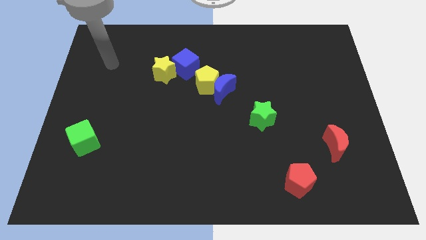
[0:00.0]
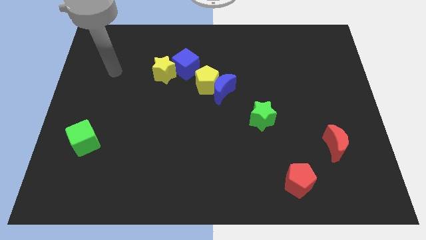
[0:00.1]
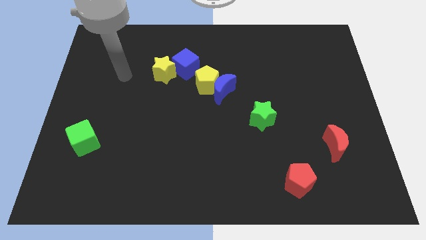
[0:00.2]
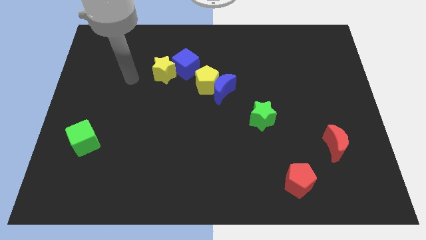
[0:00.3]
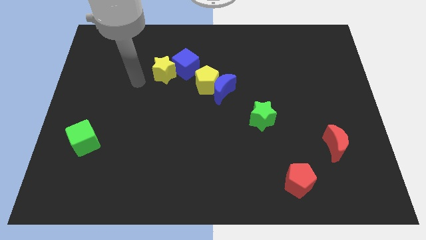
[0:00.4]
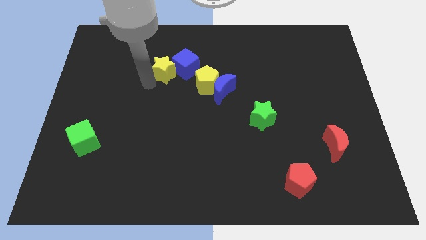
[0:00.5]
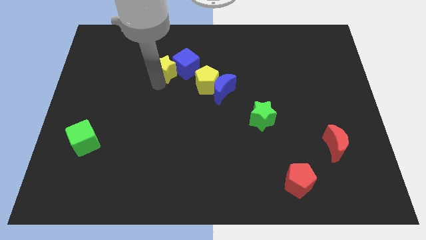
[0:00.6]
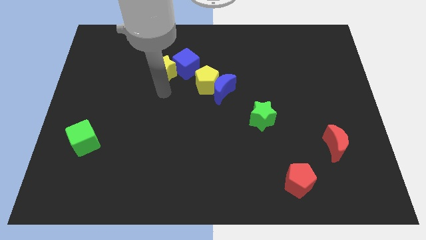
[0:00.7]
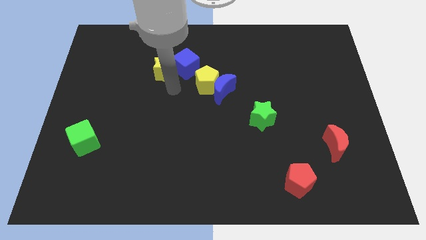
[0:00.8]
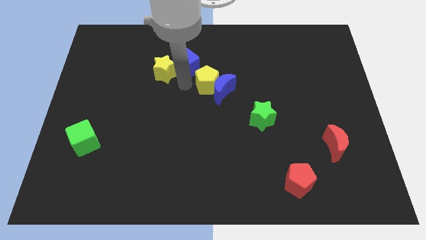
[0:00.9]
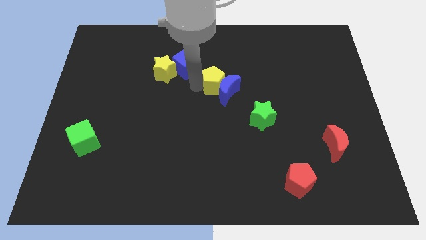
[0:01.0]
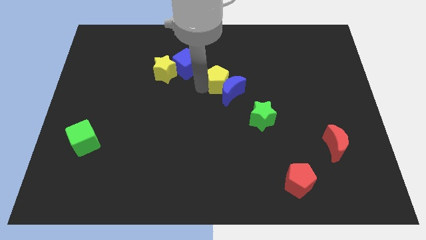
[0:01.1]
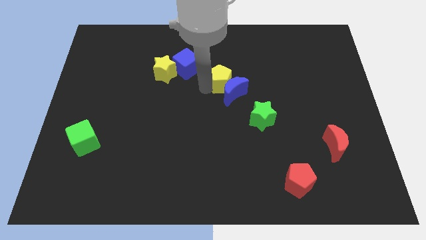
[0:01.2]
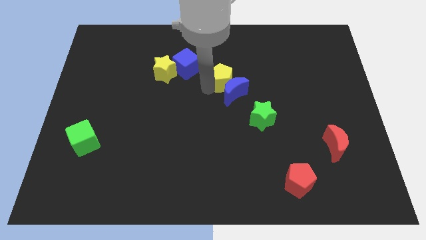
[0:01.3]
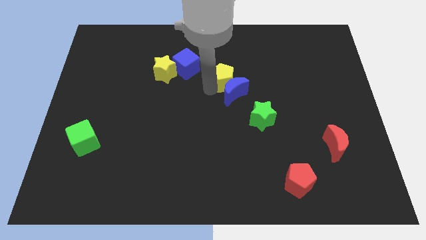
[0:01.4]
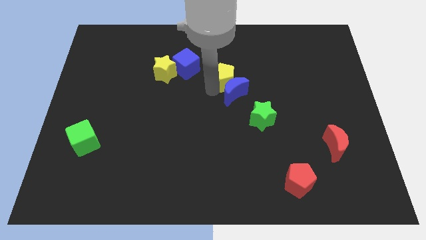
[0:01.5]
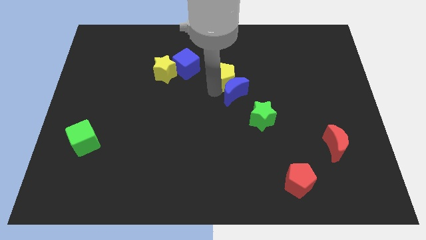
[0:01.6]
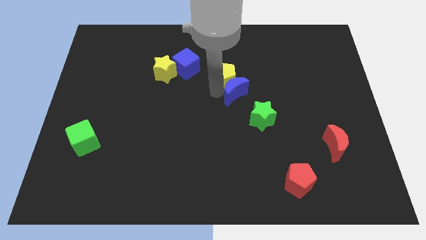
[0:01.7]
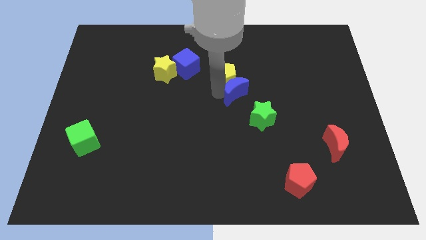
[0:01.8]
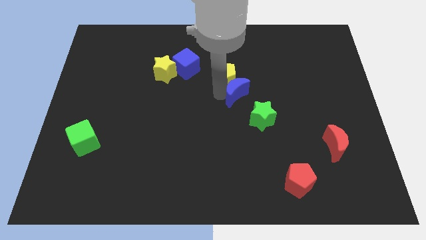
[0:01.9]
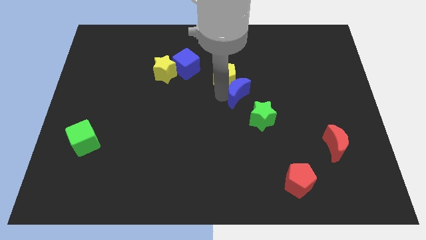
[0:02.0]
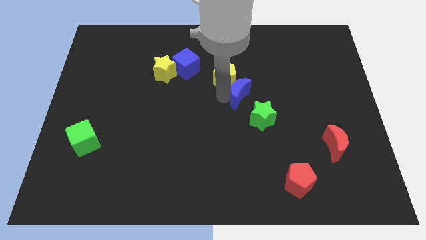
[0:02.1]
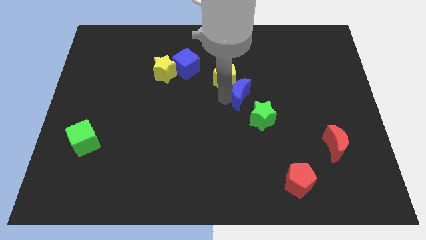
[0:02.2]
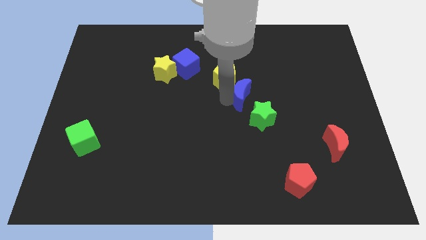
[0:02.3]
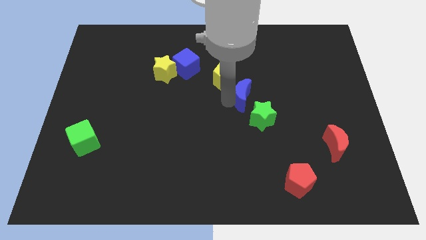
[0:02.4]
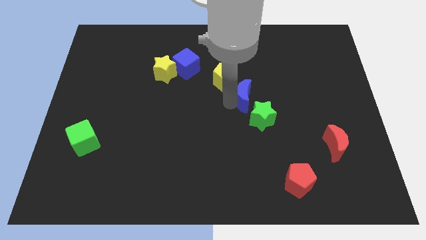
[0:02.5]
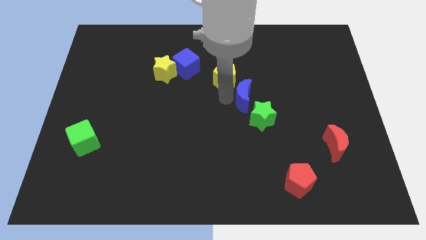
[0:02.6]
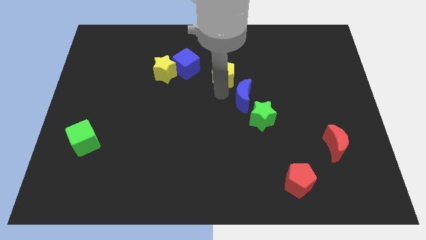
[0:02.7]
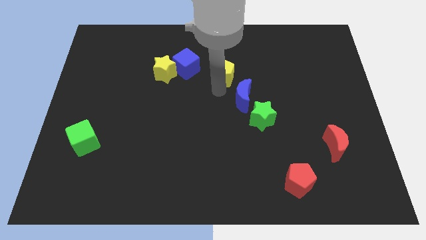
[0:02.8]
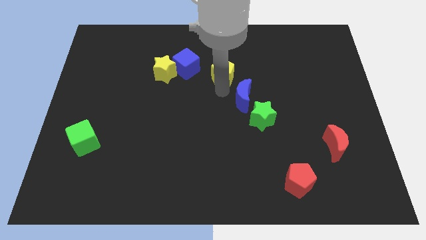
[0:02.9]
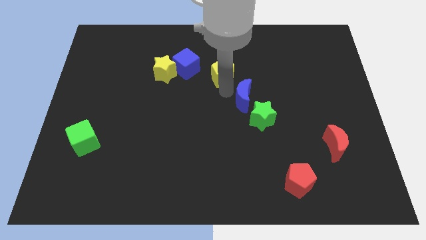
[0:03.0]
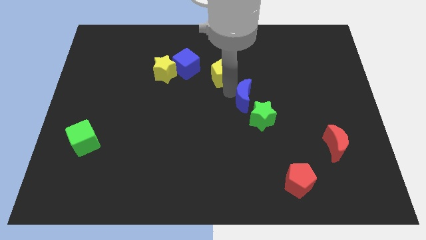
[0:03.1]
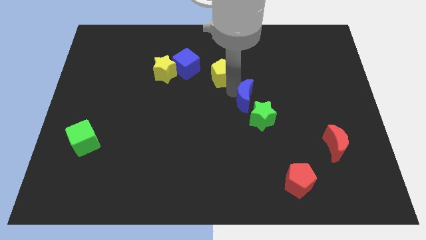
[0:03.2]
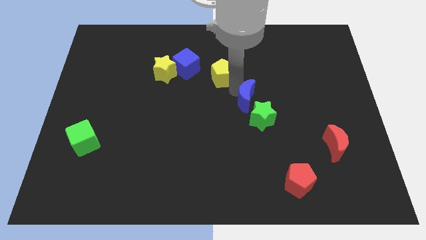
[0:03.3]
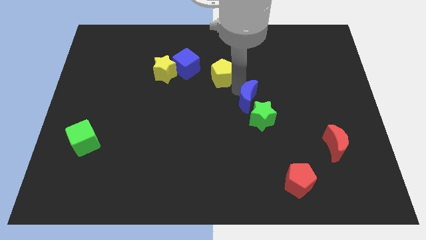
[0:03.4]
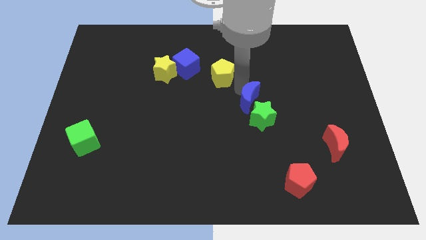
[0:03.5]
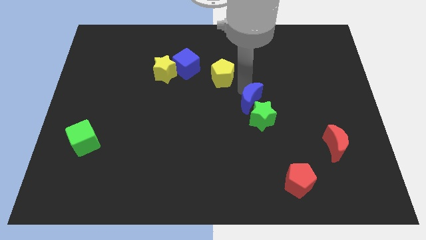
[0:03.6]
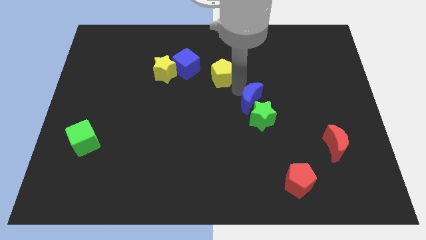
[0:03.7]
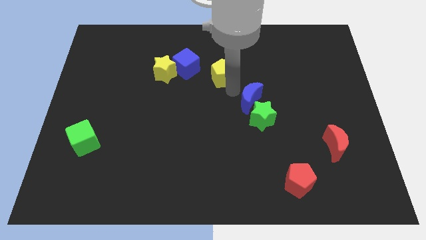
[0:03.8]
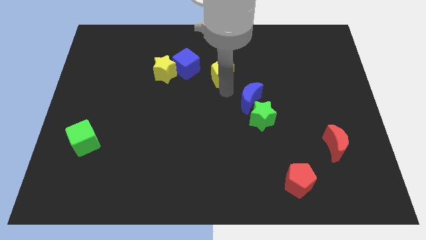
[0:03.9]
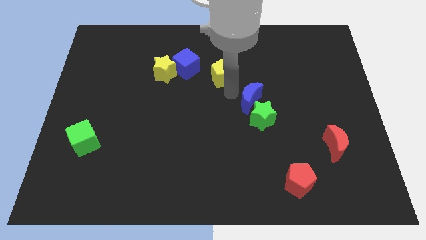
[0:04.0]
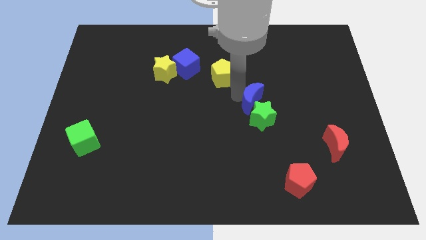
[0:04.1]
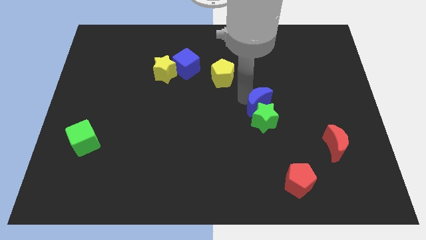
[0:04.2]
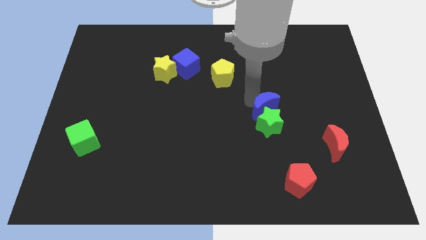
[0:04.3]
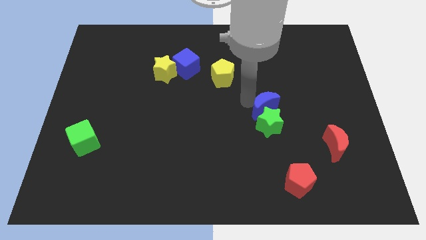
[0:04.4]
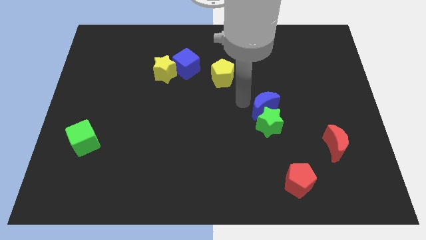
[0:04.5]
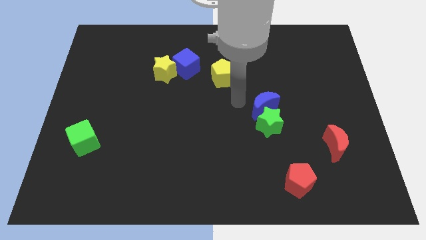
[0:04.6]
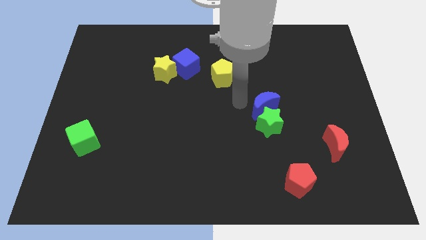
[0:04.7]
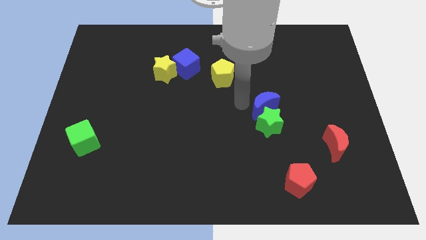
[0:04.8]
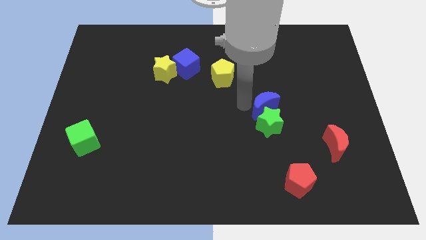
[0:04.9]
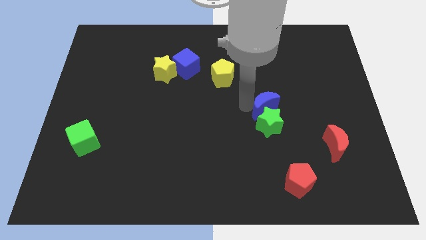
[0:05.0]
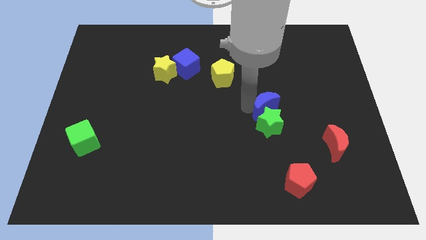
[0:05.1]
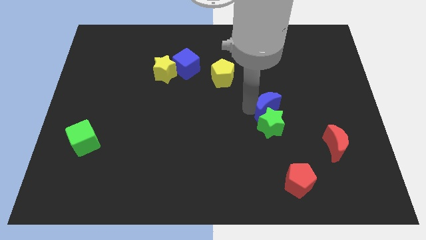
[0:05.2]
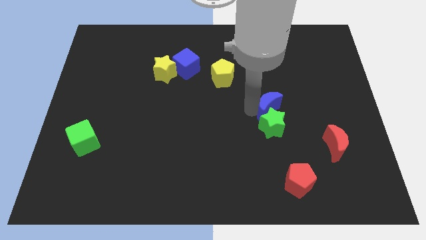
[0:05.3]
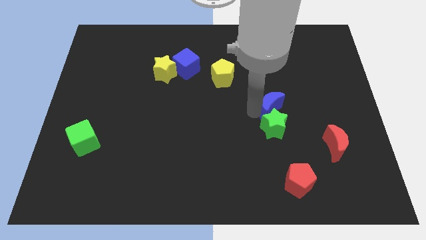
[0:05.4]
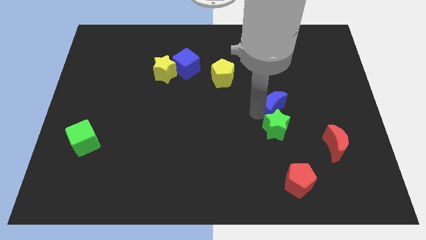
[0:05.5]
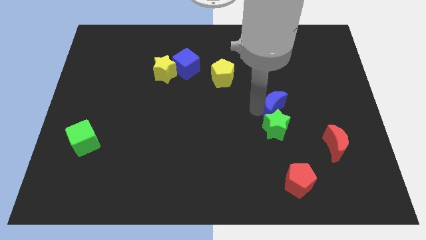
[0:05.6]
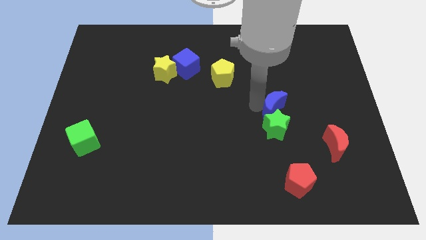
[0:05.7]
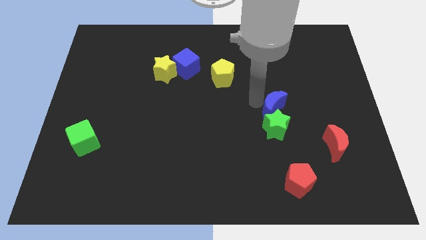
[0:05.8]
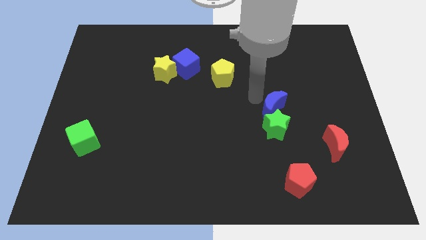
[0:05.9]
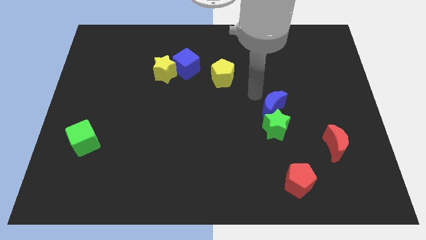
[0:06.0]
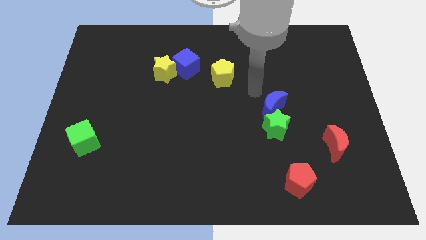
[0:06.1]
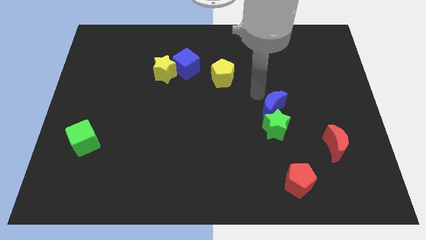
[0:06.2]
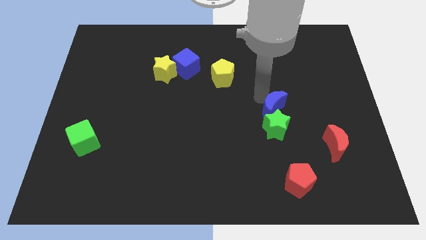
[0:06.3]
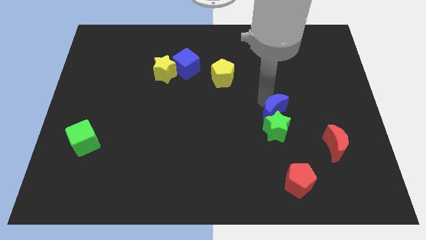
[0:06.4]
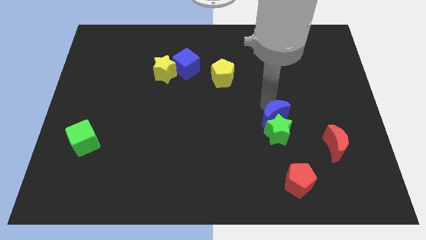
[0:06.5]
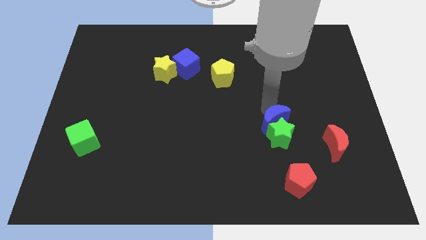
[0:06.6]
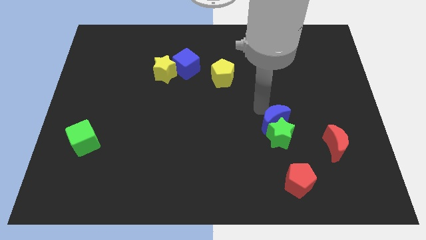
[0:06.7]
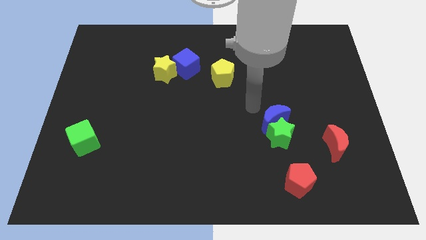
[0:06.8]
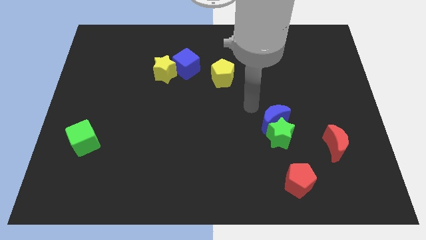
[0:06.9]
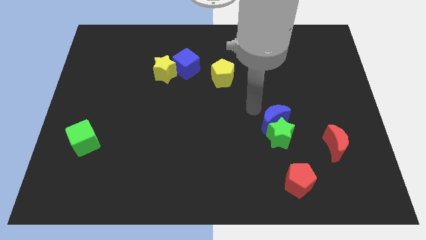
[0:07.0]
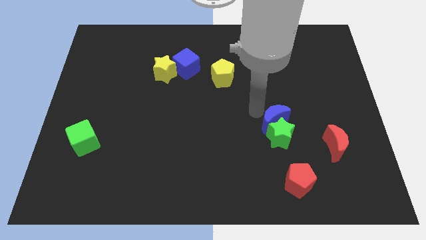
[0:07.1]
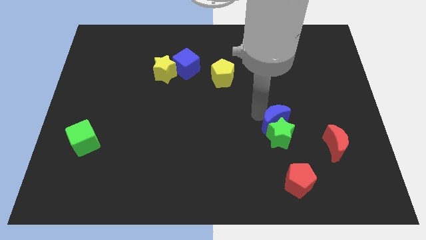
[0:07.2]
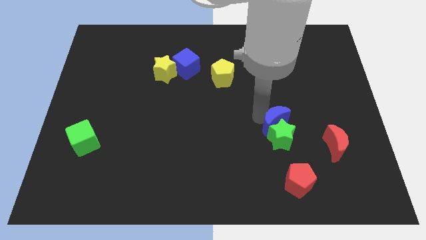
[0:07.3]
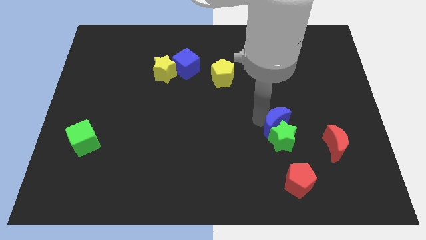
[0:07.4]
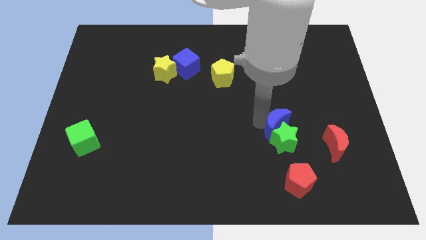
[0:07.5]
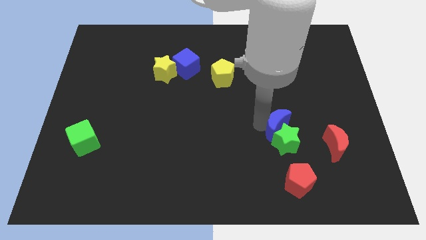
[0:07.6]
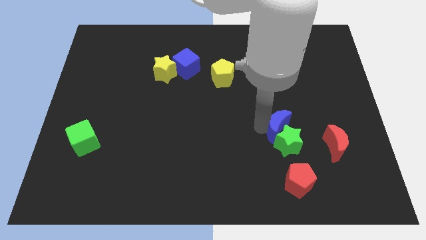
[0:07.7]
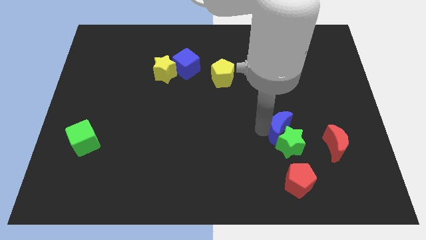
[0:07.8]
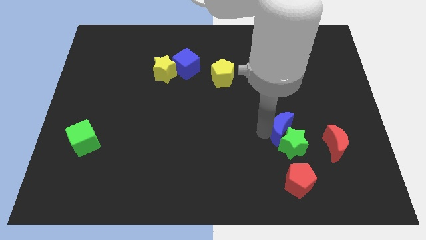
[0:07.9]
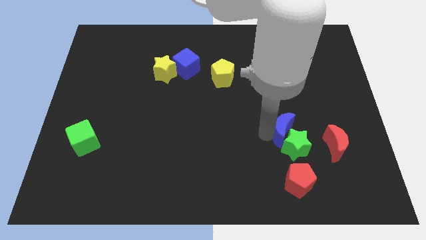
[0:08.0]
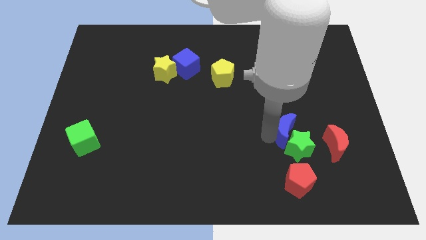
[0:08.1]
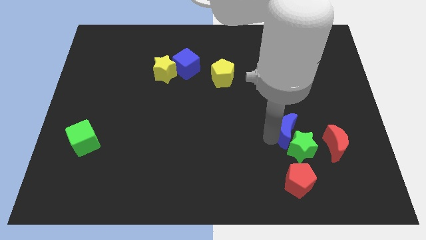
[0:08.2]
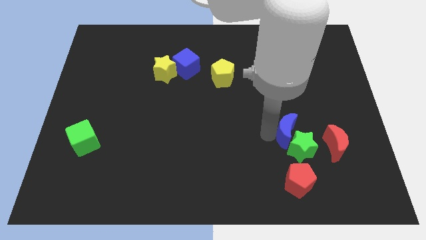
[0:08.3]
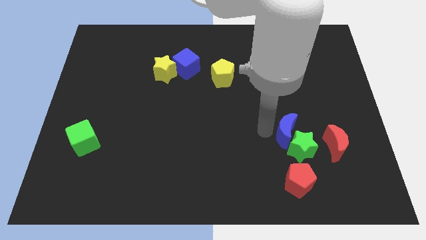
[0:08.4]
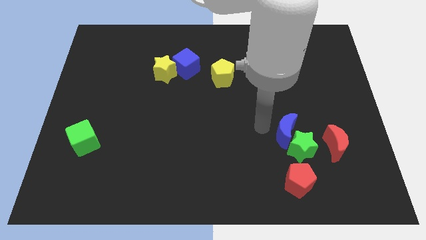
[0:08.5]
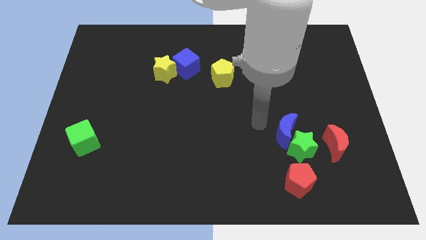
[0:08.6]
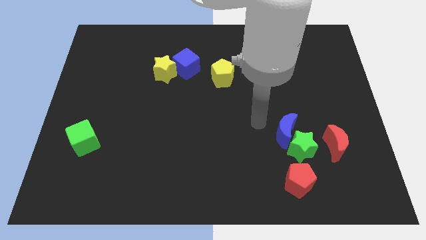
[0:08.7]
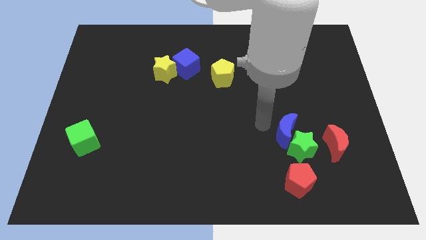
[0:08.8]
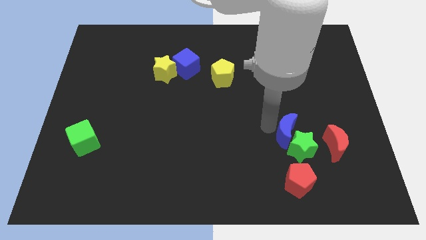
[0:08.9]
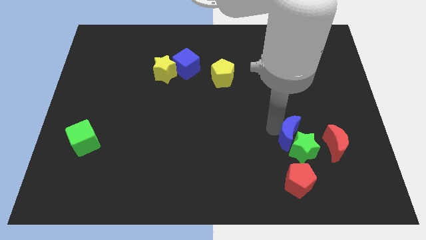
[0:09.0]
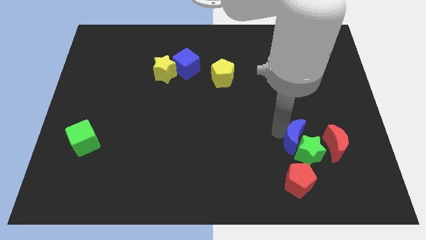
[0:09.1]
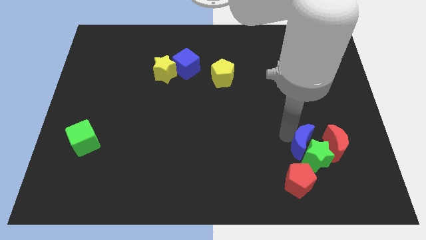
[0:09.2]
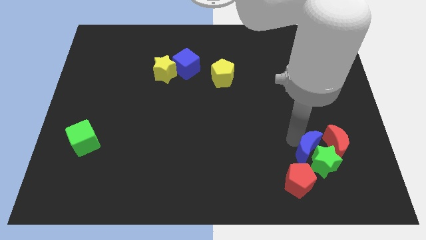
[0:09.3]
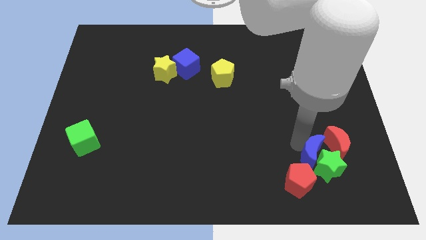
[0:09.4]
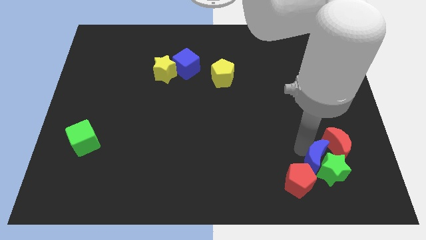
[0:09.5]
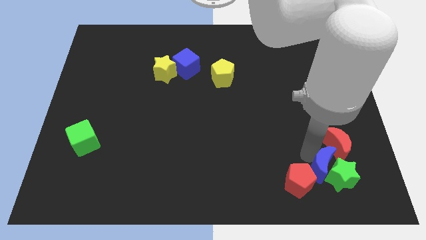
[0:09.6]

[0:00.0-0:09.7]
put the blue moon just right of the red pentagon
